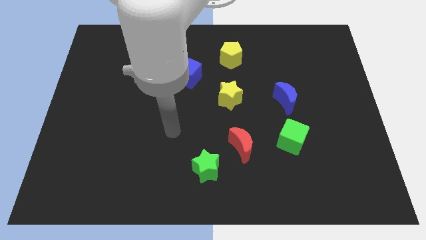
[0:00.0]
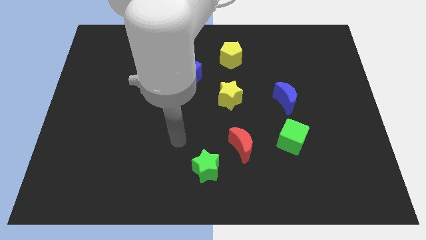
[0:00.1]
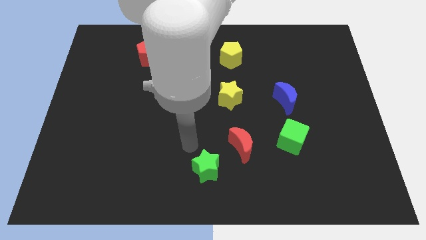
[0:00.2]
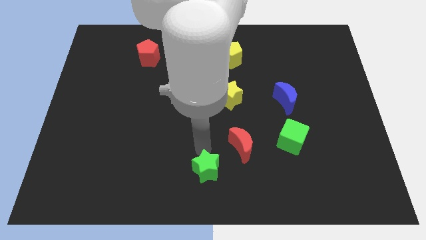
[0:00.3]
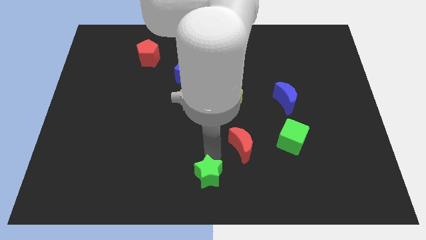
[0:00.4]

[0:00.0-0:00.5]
pull the red moon apart from the green star

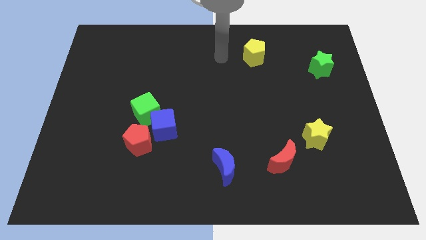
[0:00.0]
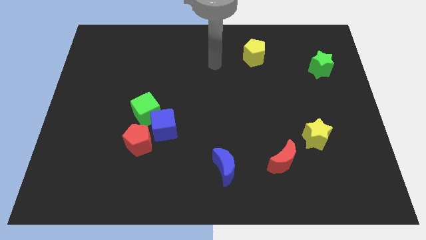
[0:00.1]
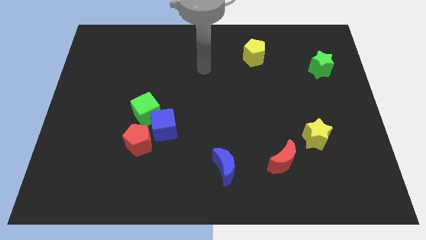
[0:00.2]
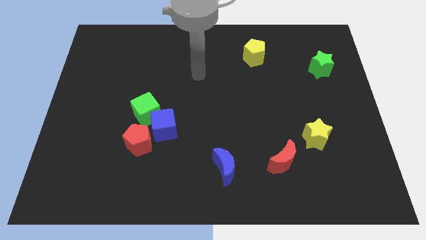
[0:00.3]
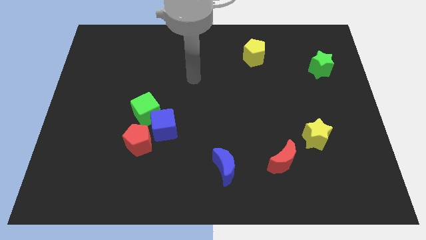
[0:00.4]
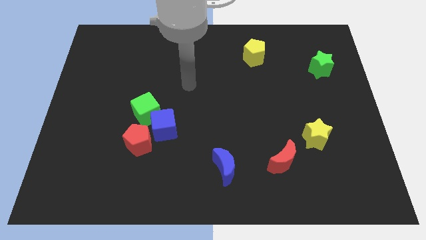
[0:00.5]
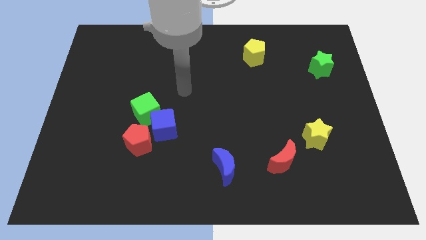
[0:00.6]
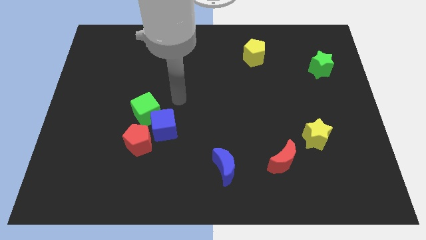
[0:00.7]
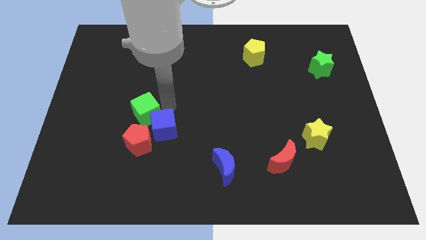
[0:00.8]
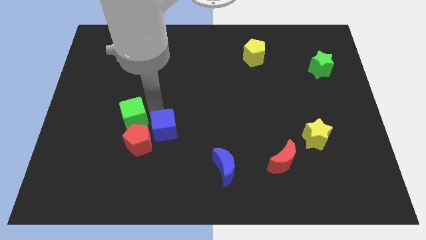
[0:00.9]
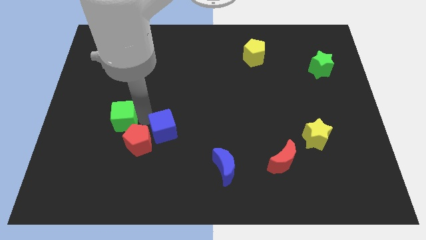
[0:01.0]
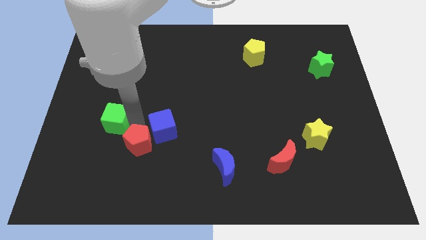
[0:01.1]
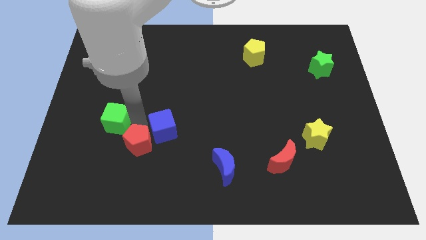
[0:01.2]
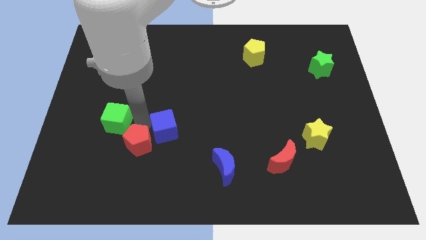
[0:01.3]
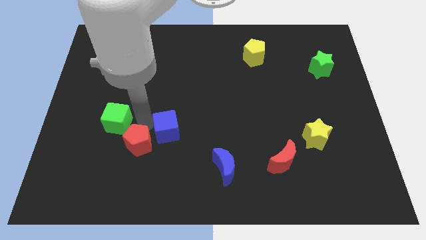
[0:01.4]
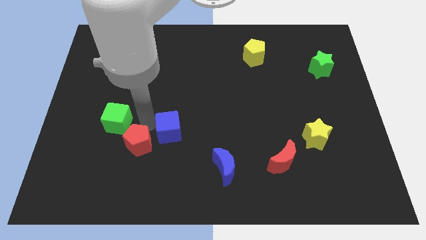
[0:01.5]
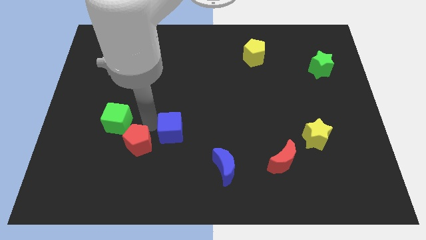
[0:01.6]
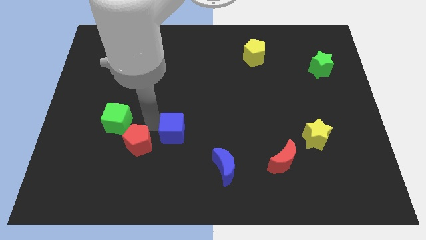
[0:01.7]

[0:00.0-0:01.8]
separate the blue cube from the green cube and red pentagon

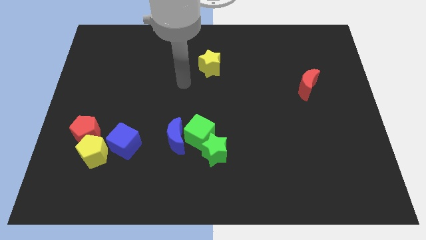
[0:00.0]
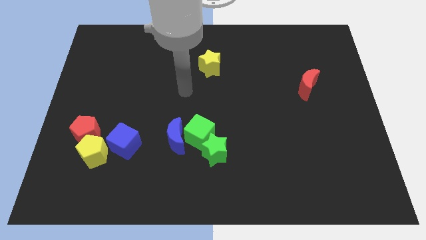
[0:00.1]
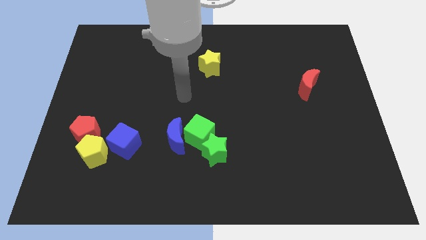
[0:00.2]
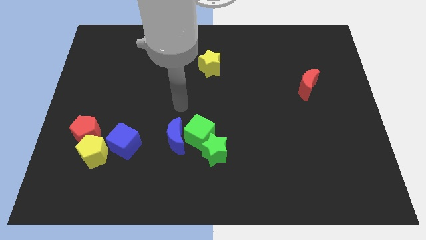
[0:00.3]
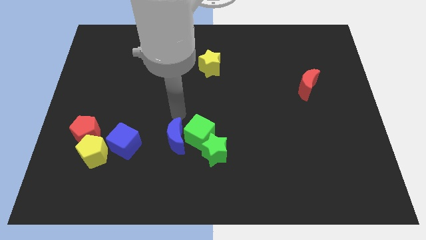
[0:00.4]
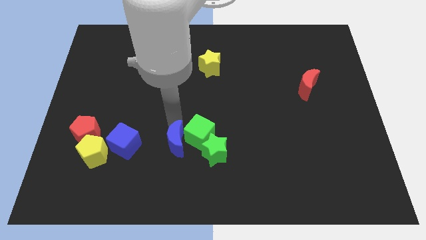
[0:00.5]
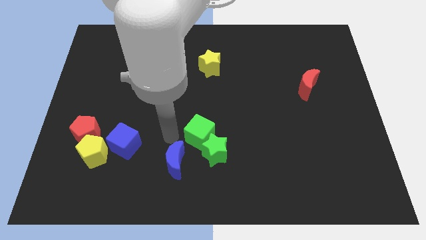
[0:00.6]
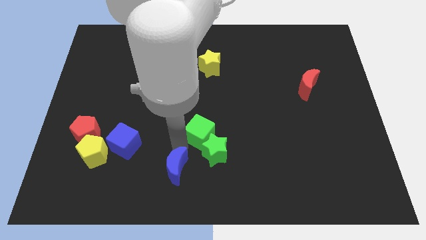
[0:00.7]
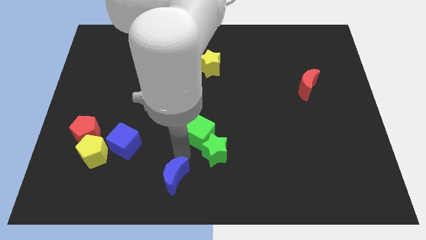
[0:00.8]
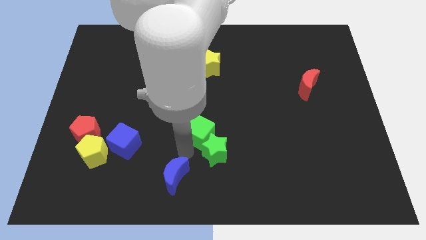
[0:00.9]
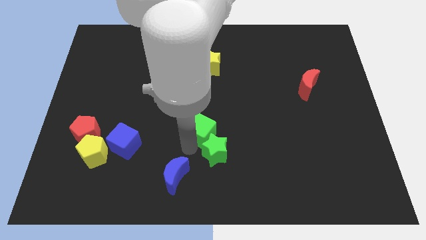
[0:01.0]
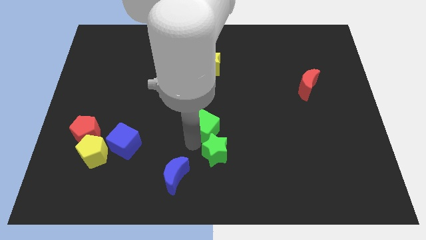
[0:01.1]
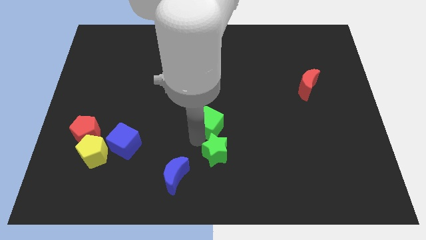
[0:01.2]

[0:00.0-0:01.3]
separate the green cube from the blue moon and green star

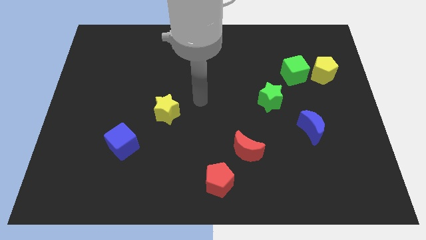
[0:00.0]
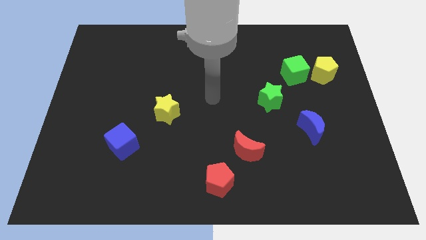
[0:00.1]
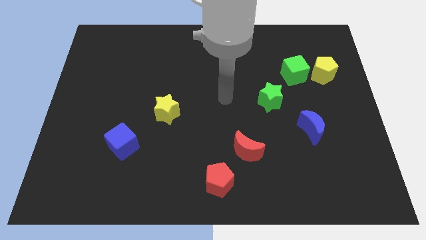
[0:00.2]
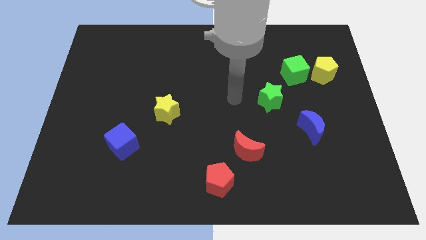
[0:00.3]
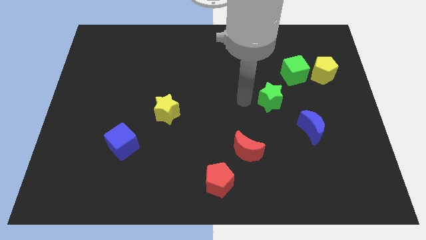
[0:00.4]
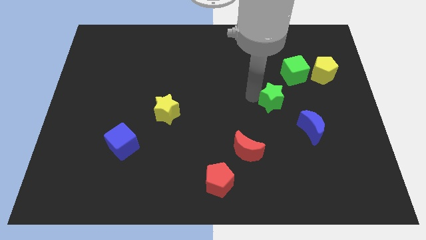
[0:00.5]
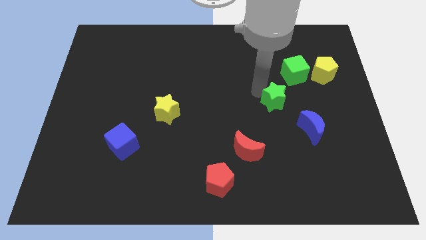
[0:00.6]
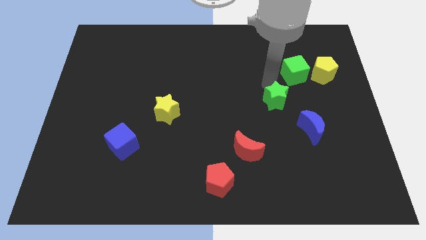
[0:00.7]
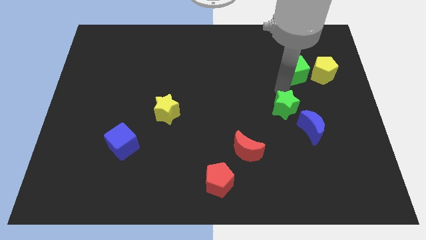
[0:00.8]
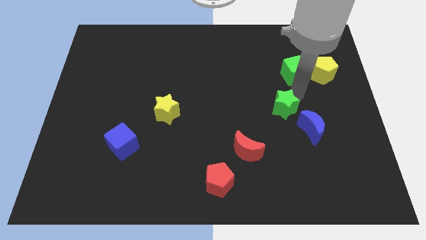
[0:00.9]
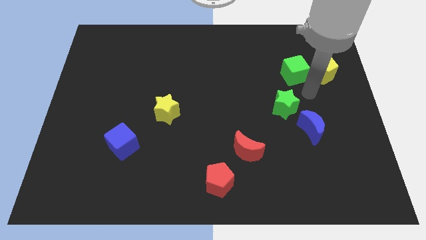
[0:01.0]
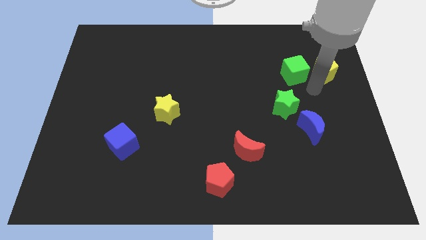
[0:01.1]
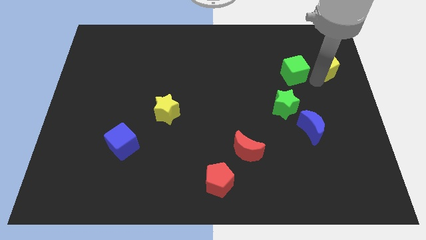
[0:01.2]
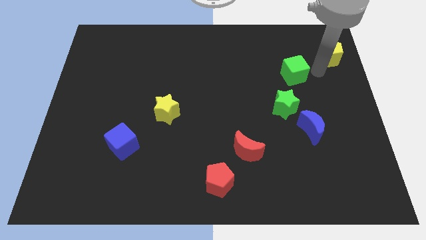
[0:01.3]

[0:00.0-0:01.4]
move the green cube away from the yellow pentagon

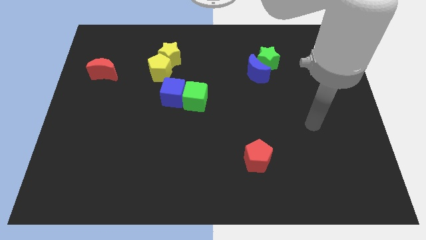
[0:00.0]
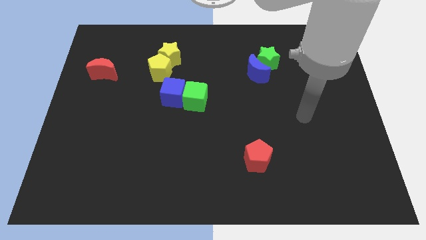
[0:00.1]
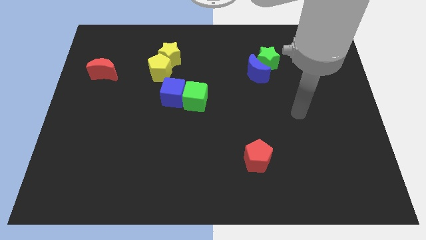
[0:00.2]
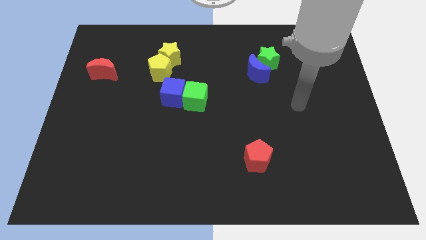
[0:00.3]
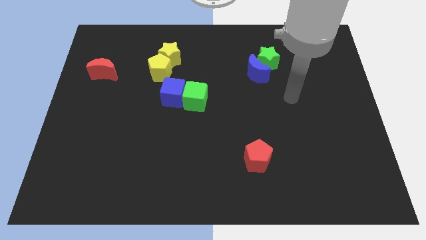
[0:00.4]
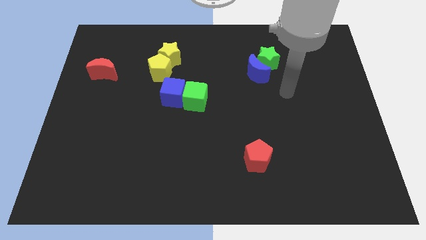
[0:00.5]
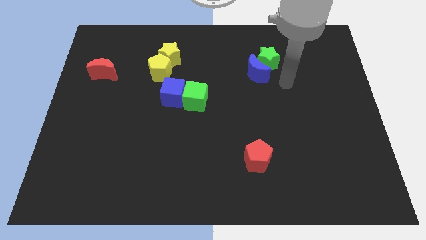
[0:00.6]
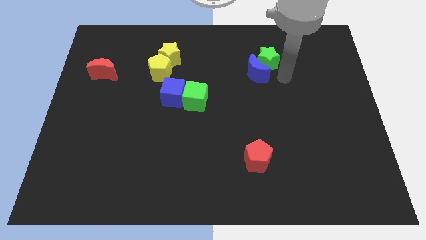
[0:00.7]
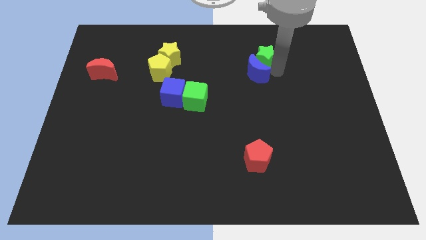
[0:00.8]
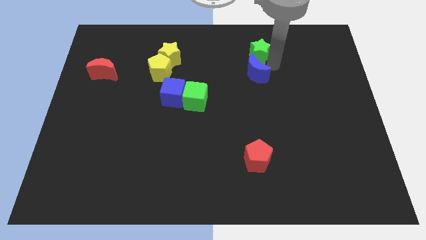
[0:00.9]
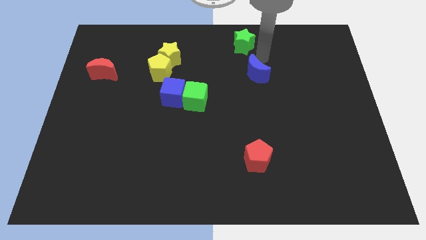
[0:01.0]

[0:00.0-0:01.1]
pull the blue moon apart from the green star

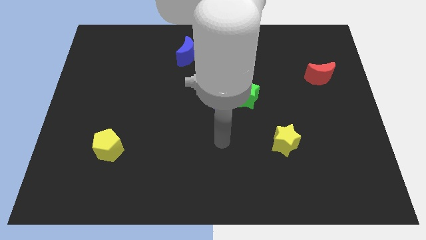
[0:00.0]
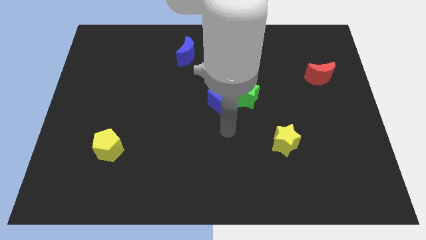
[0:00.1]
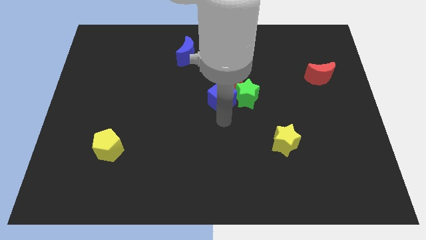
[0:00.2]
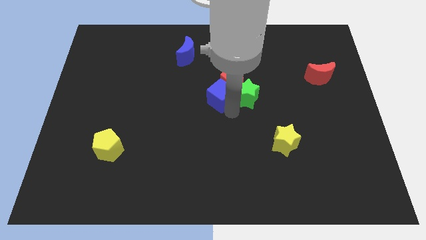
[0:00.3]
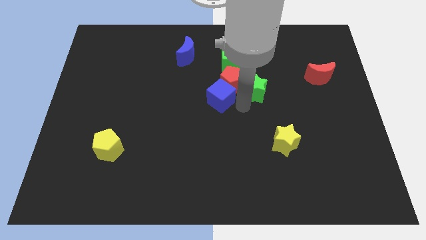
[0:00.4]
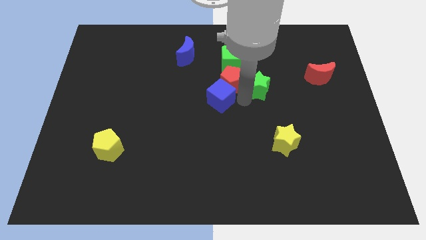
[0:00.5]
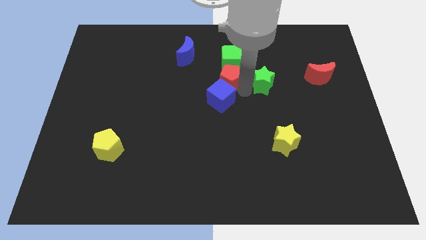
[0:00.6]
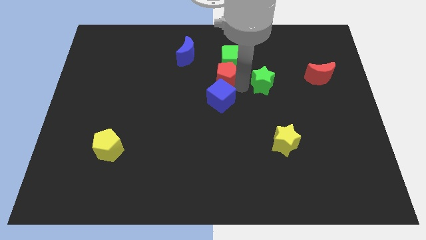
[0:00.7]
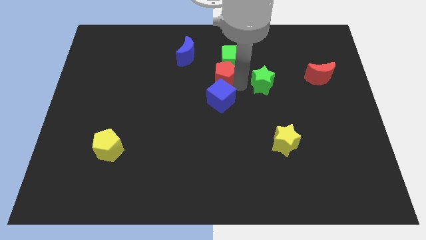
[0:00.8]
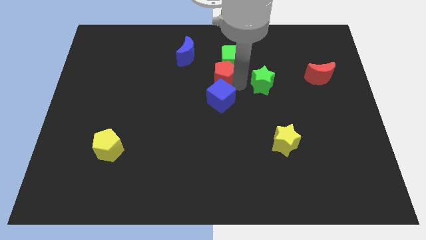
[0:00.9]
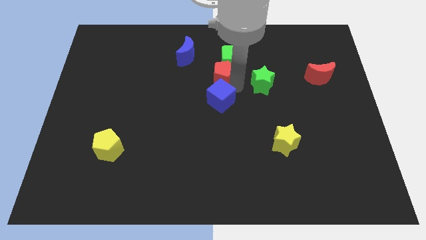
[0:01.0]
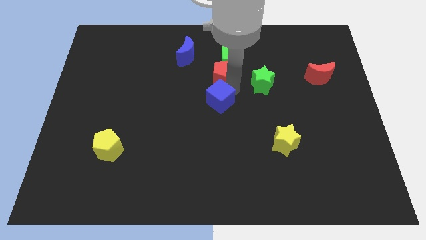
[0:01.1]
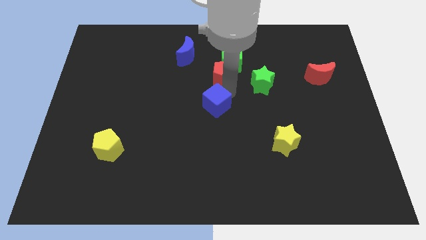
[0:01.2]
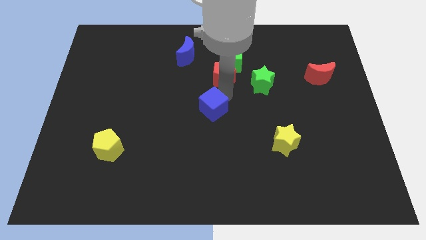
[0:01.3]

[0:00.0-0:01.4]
pull the blue cube apart from the red pentagon and green star

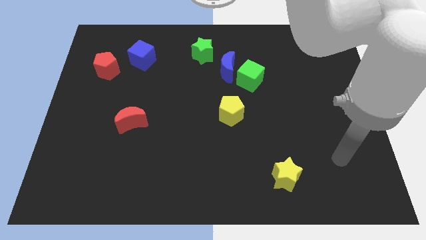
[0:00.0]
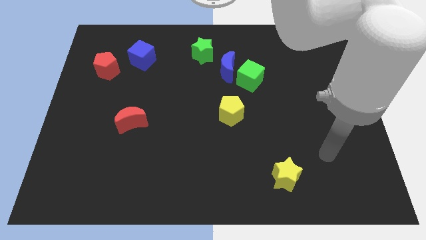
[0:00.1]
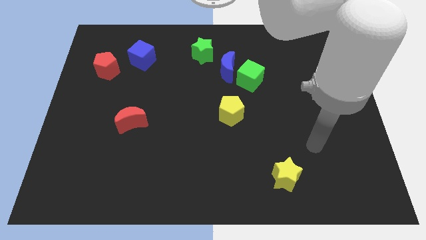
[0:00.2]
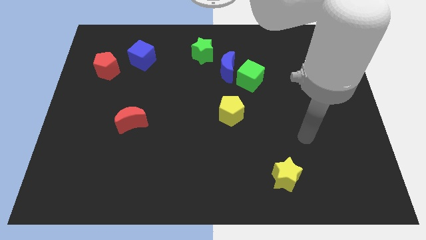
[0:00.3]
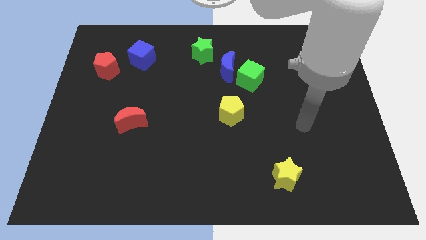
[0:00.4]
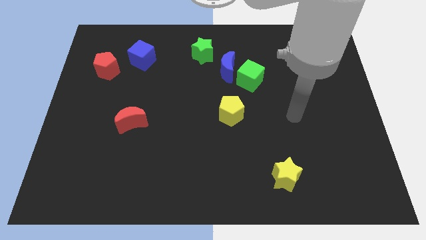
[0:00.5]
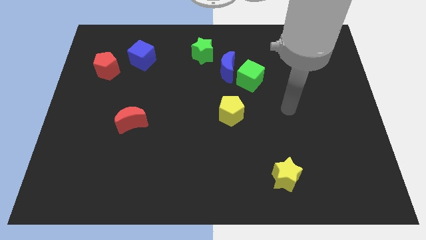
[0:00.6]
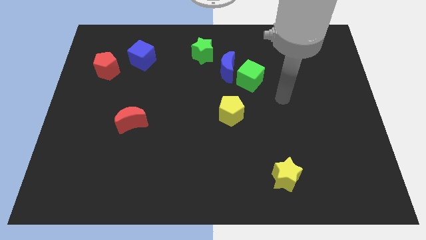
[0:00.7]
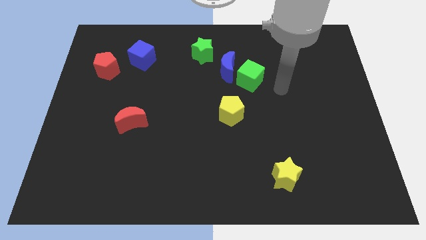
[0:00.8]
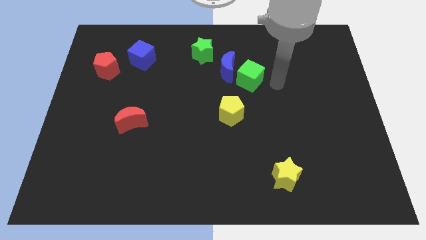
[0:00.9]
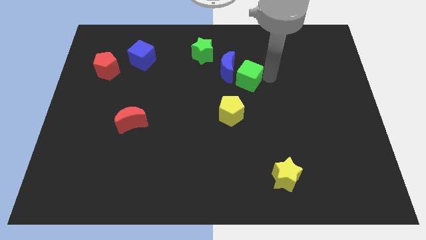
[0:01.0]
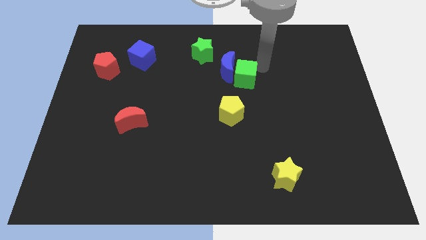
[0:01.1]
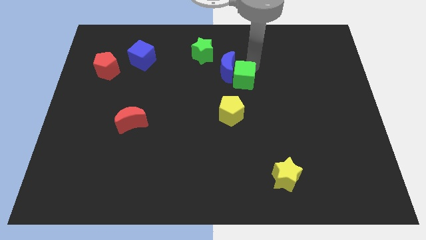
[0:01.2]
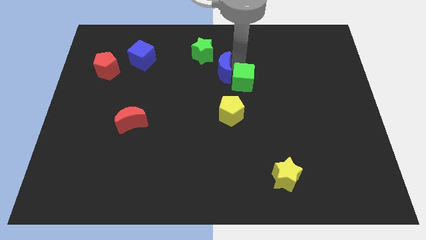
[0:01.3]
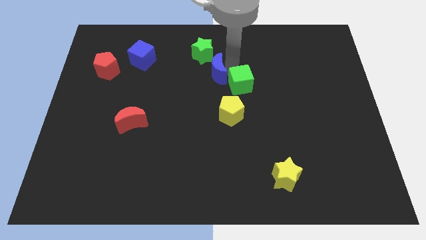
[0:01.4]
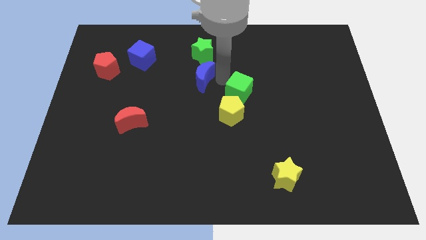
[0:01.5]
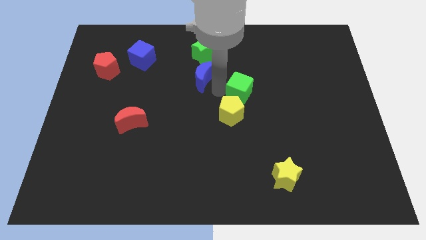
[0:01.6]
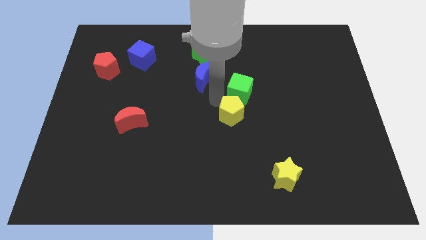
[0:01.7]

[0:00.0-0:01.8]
separate the green cube from the blue moon

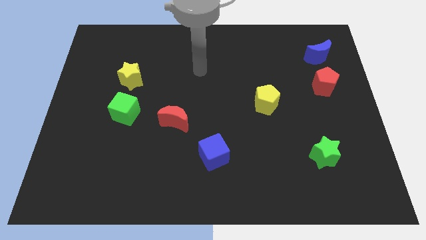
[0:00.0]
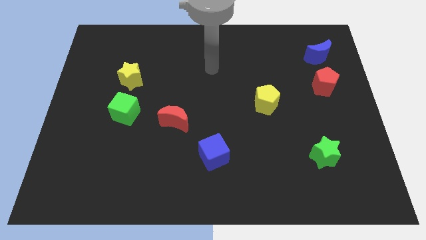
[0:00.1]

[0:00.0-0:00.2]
separate the red pentagon from the blue moon
